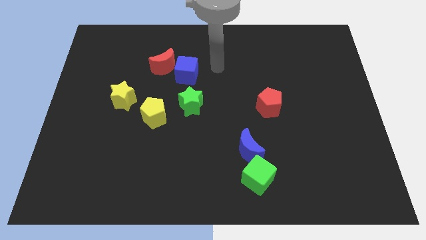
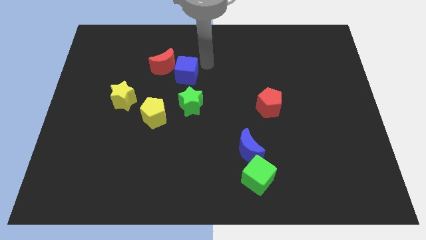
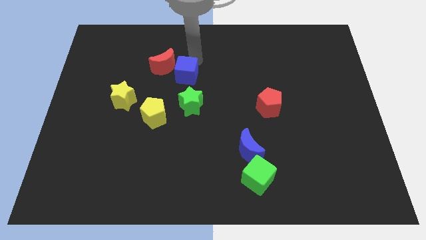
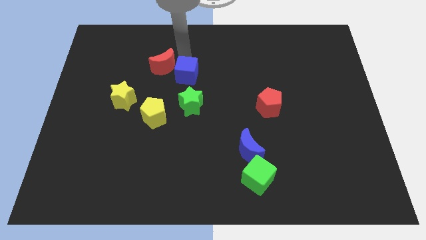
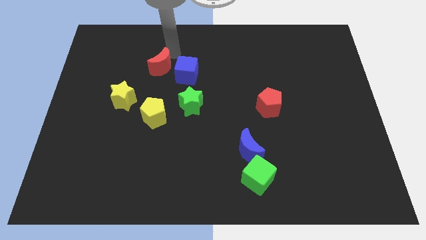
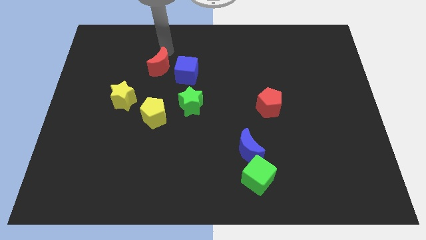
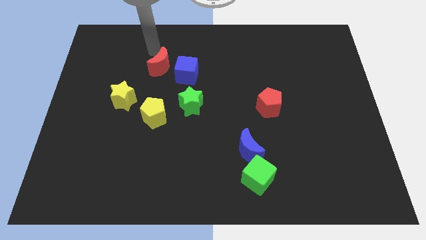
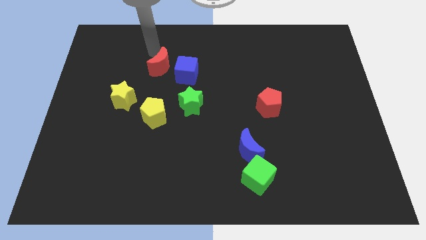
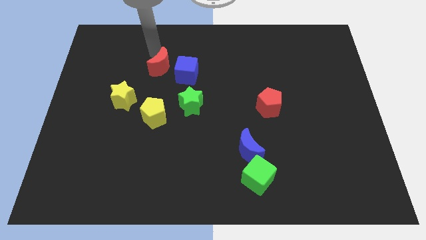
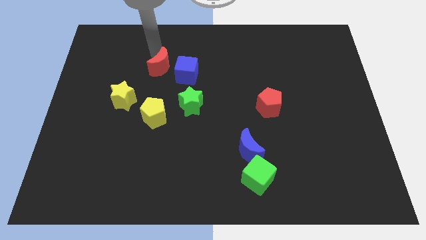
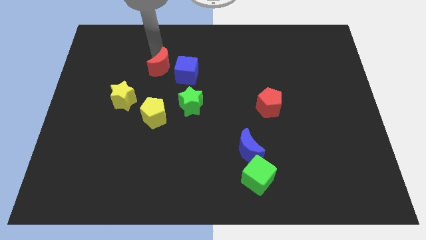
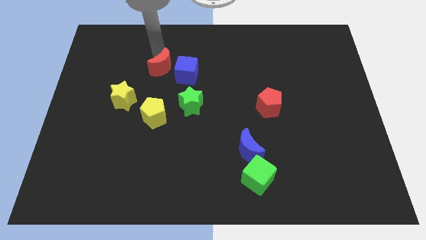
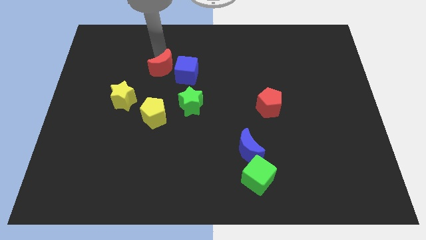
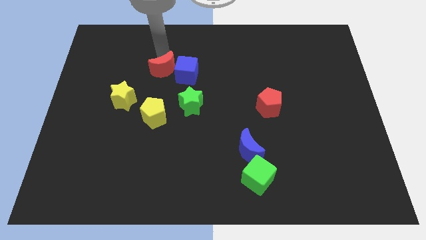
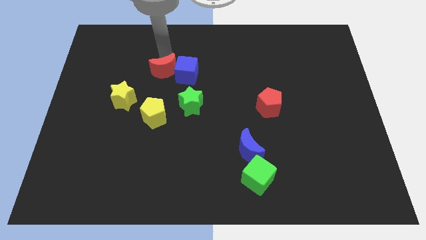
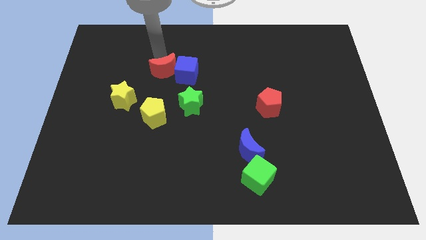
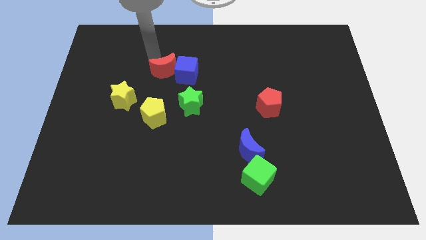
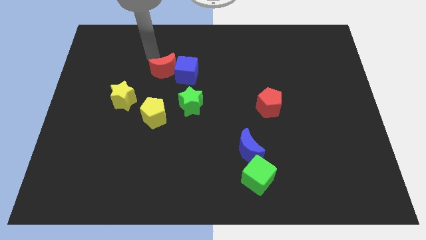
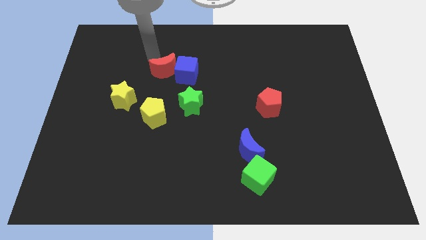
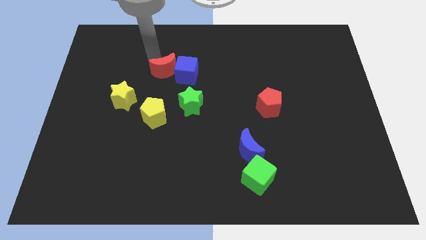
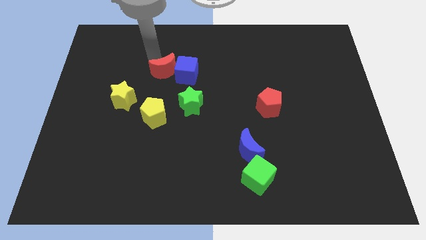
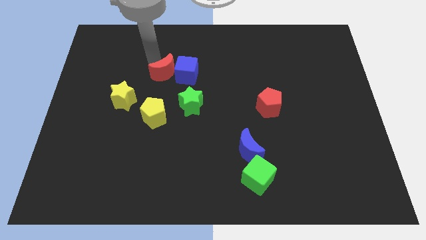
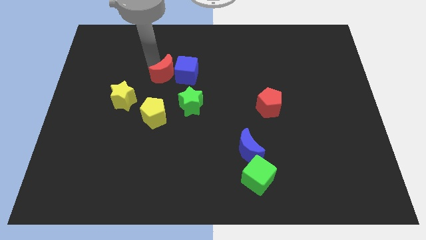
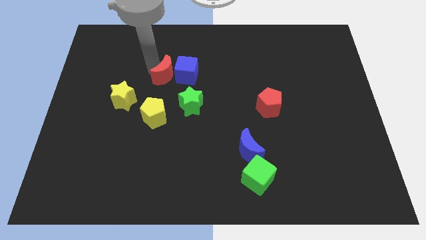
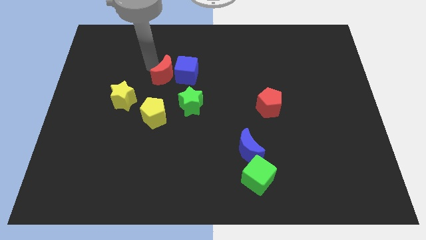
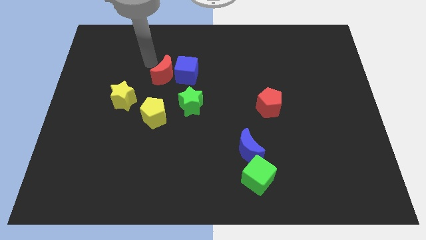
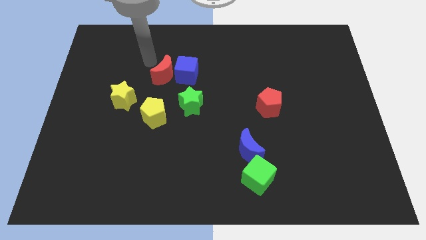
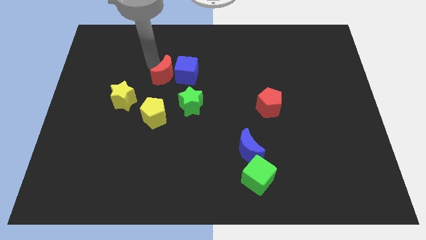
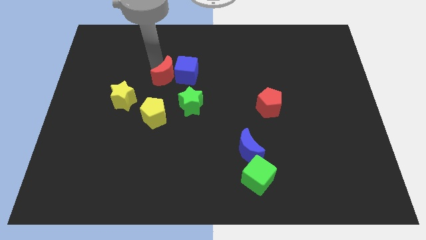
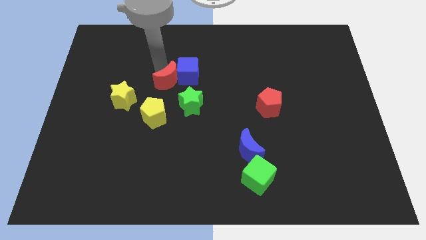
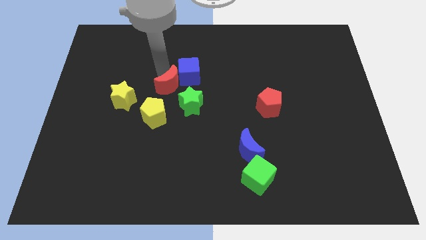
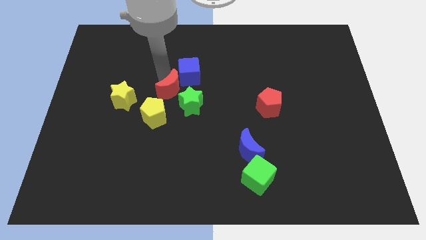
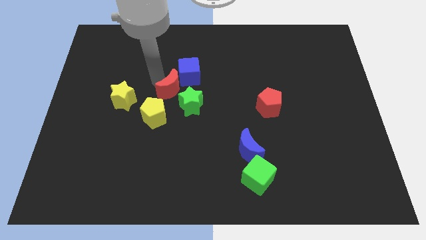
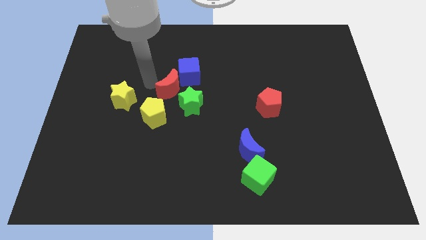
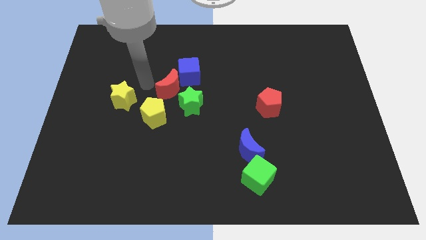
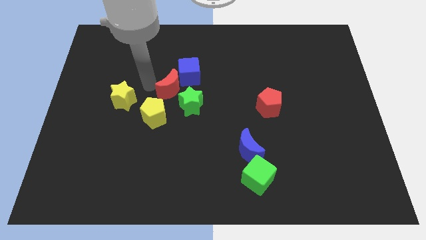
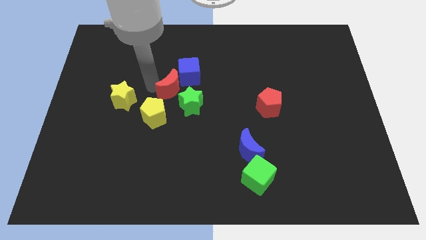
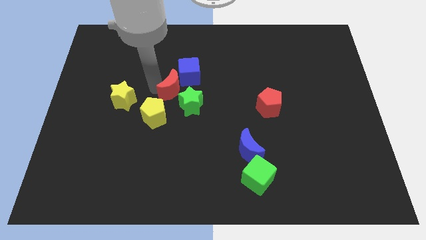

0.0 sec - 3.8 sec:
slightly push the red moon down and to the right diagonally

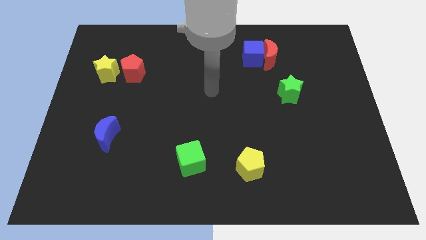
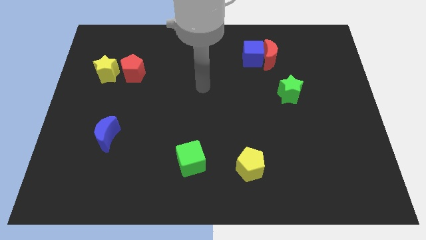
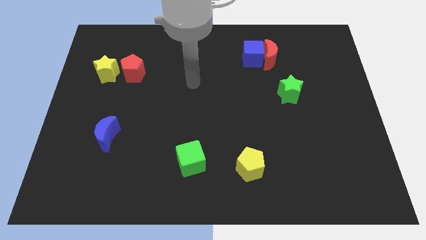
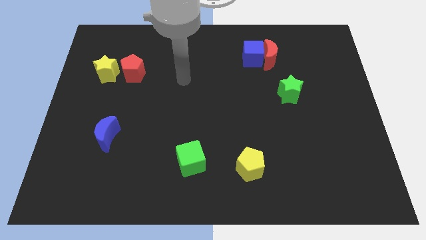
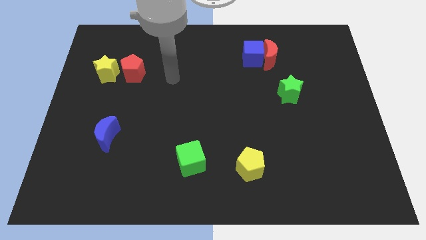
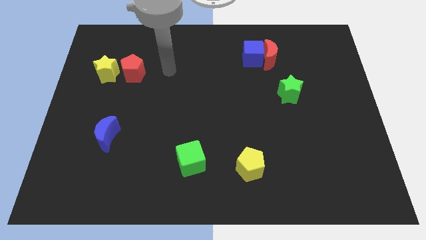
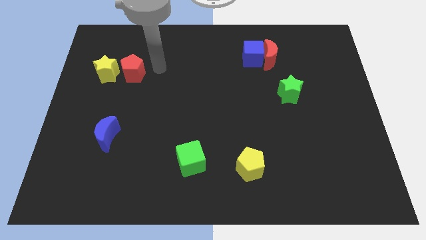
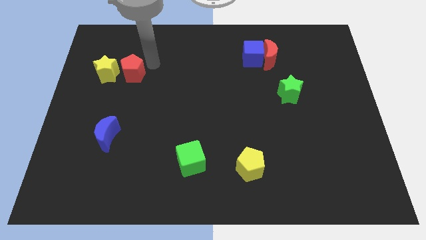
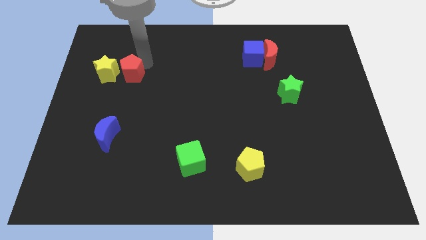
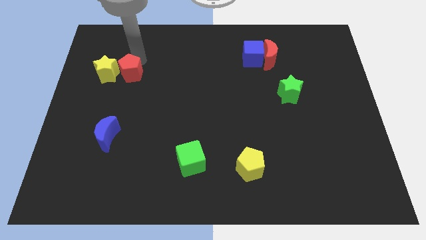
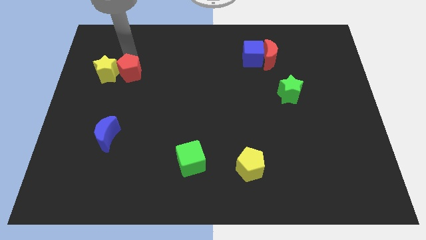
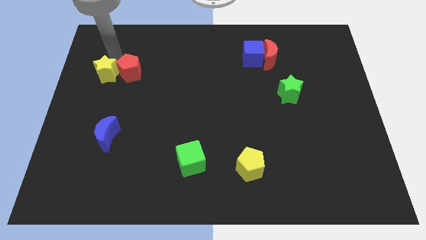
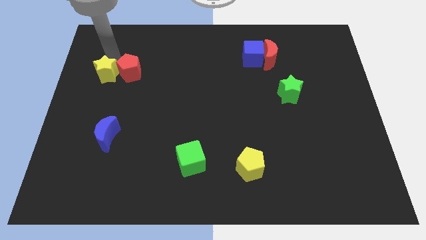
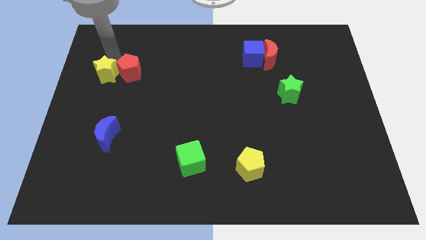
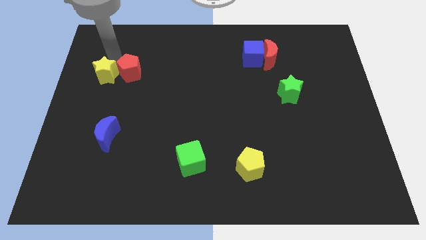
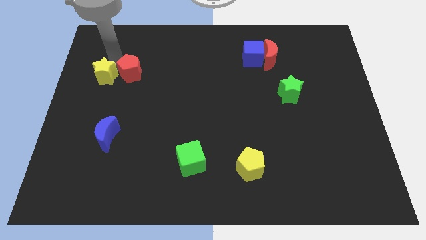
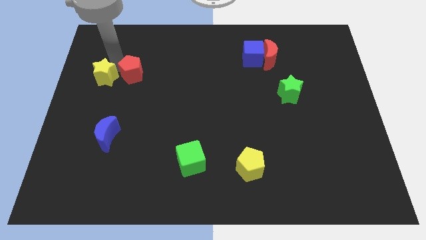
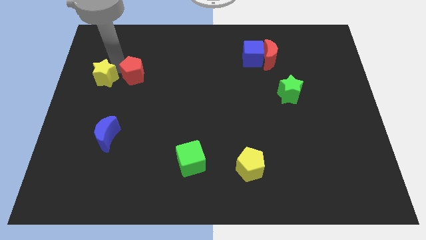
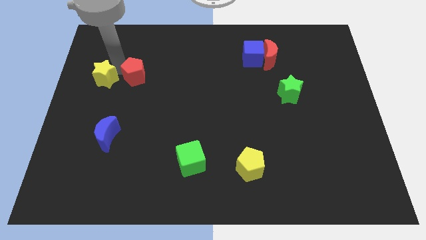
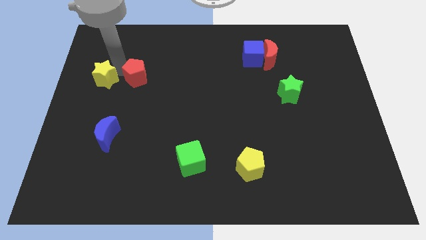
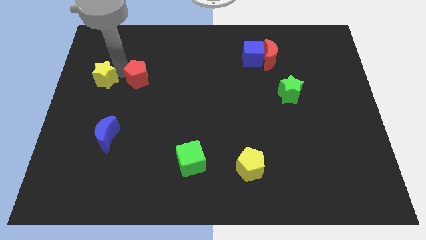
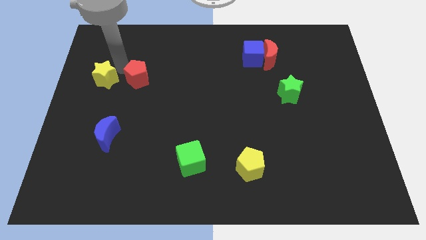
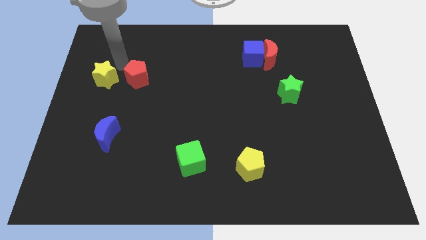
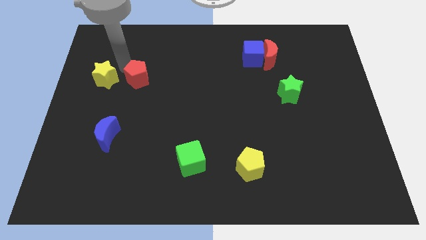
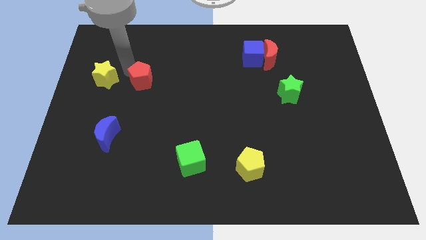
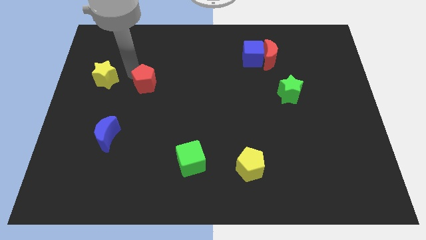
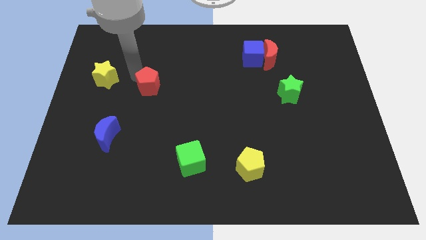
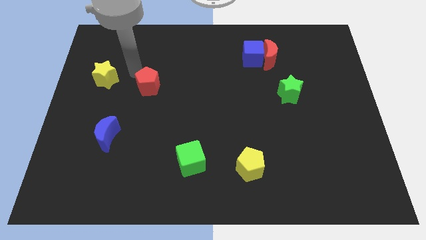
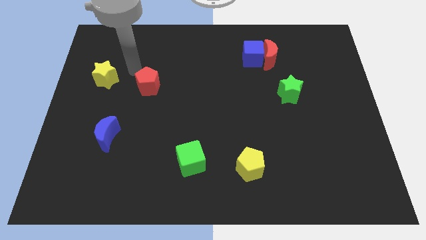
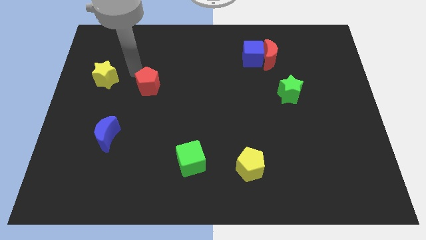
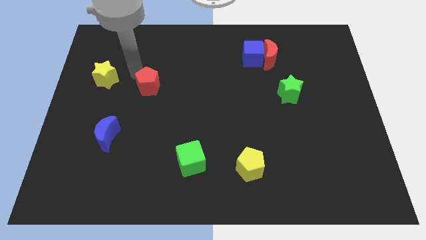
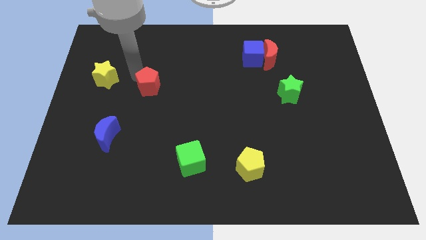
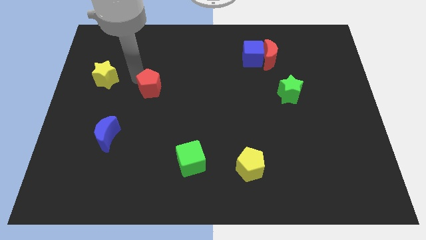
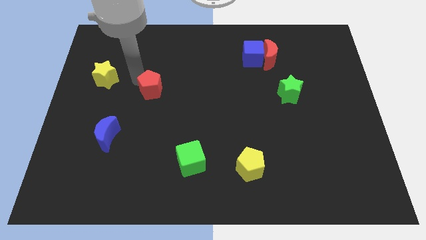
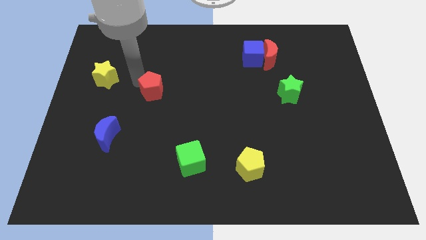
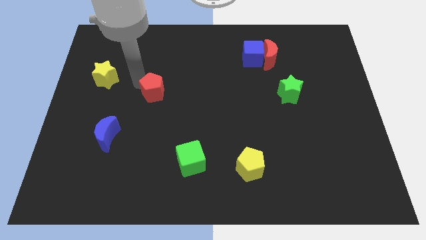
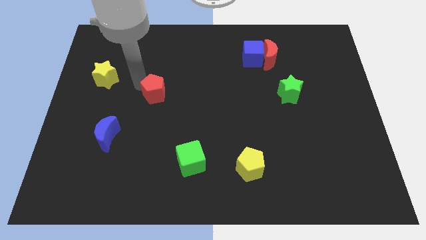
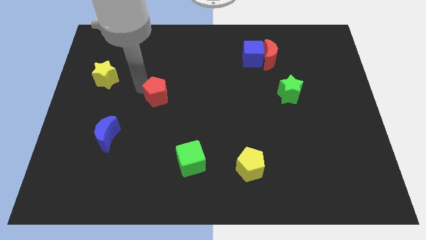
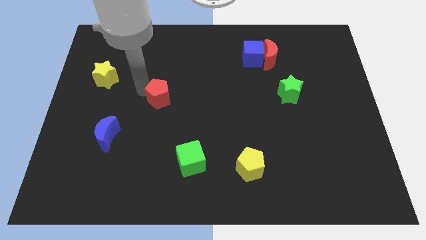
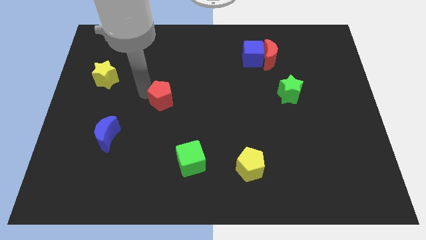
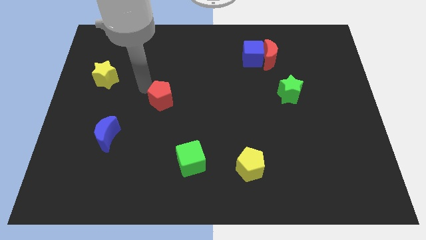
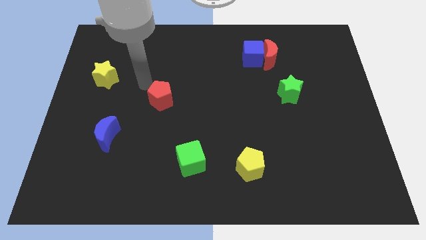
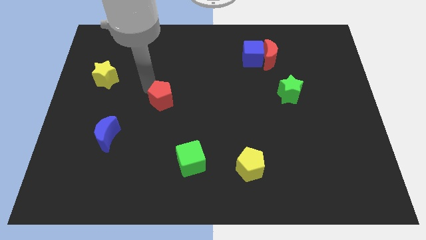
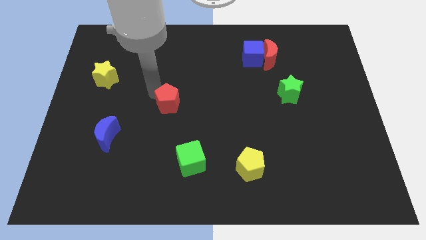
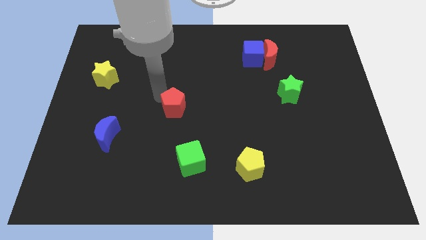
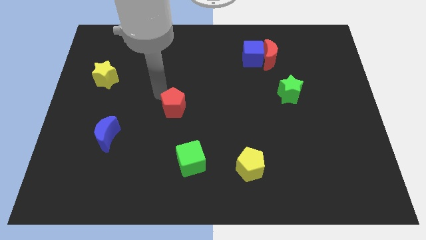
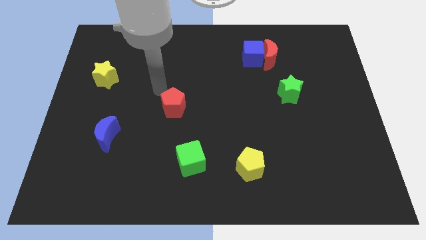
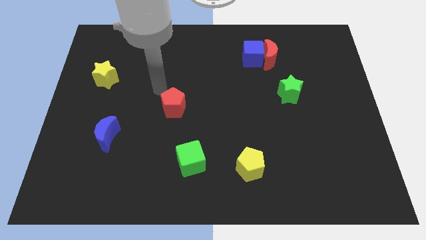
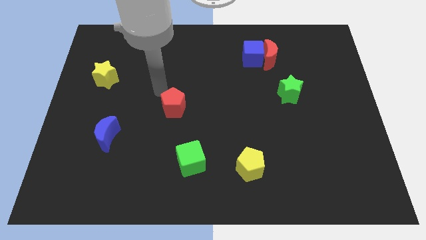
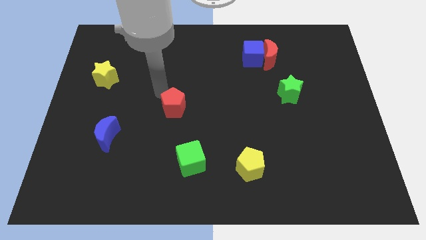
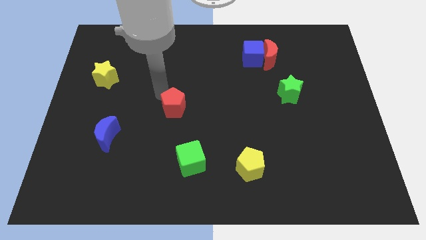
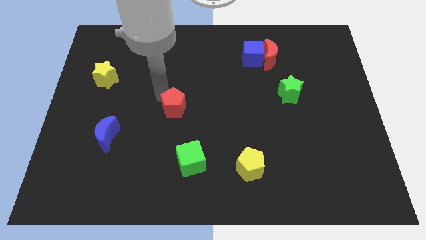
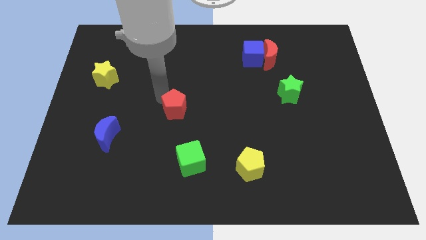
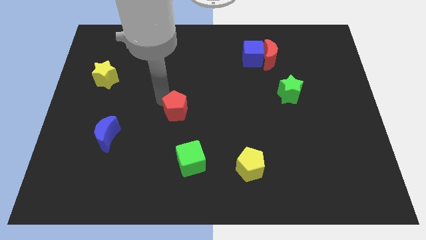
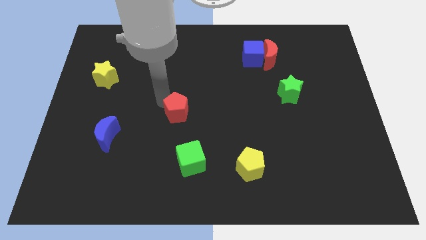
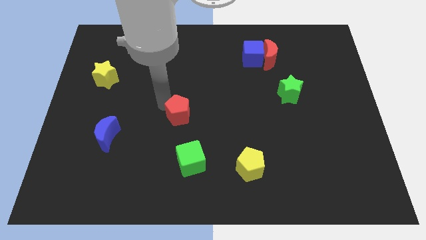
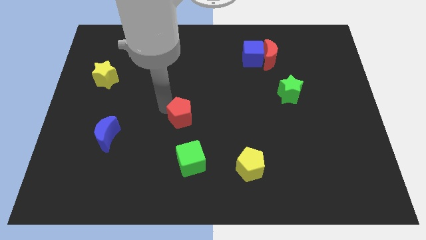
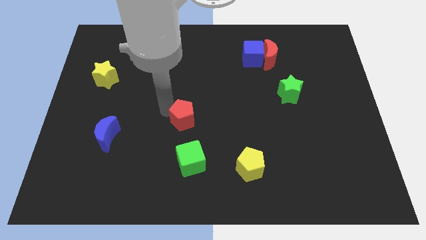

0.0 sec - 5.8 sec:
push the red pentagon down and to the right diagonally
